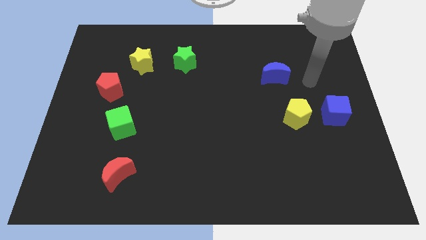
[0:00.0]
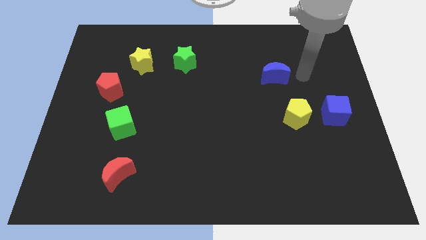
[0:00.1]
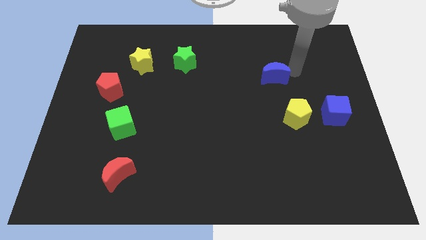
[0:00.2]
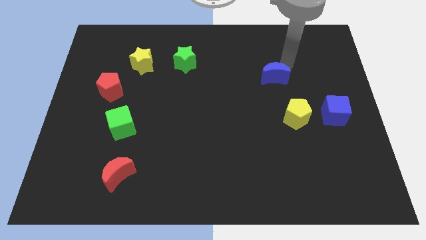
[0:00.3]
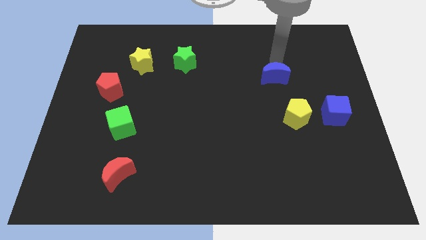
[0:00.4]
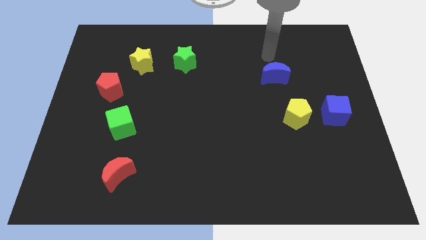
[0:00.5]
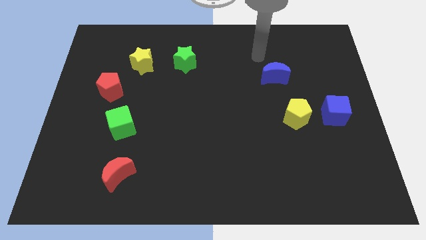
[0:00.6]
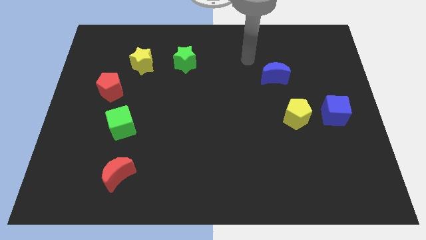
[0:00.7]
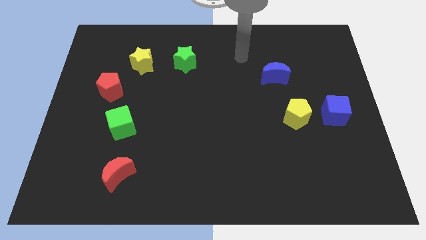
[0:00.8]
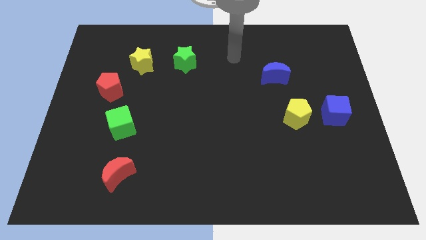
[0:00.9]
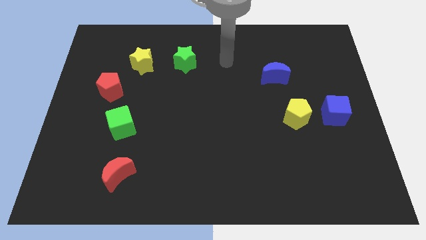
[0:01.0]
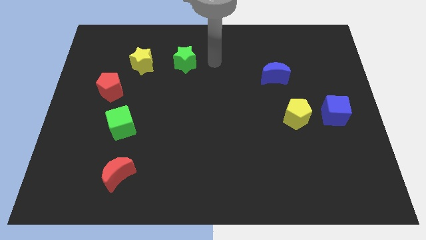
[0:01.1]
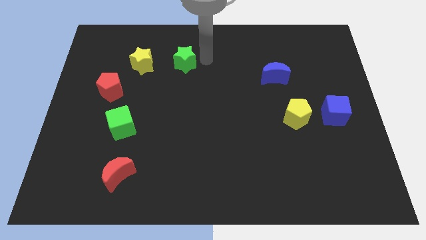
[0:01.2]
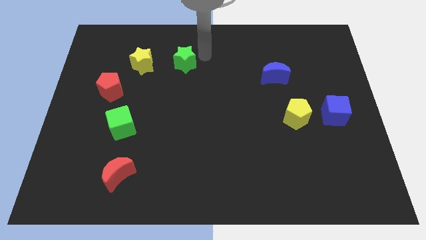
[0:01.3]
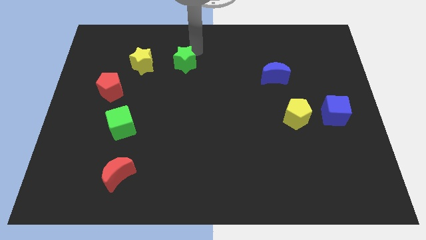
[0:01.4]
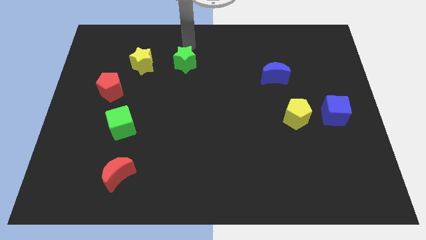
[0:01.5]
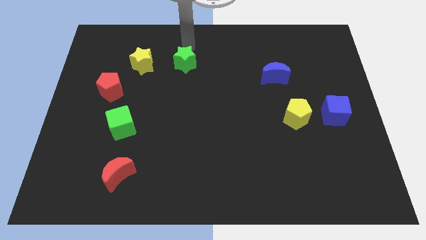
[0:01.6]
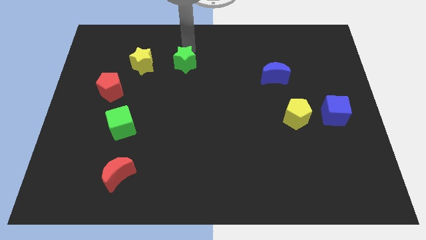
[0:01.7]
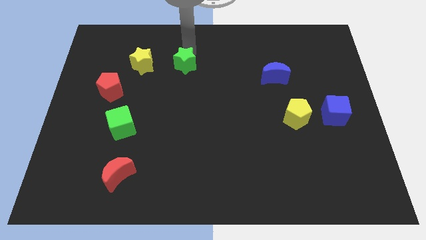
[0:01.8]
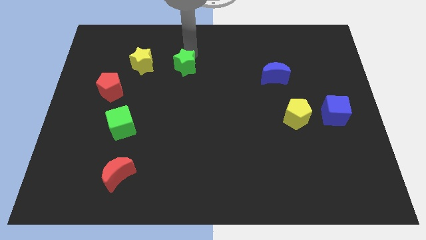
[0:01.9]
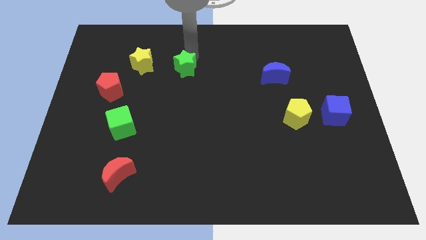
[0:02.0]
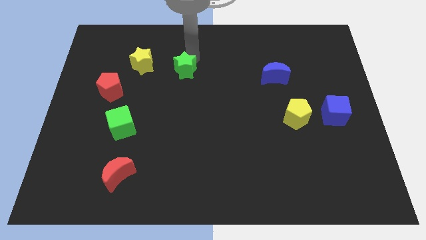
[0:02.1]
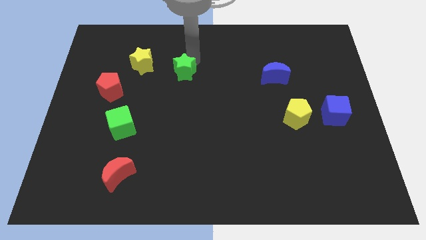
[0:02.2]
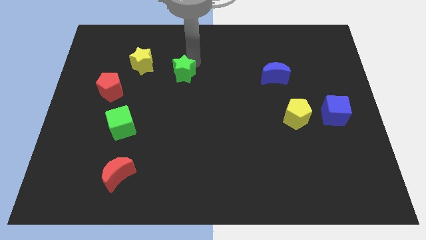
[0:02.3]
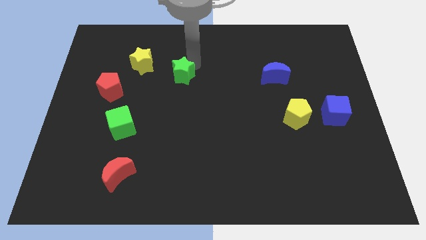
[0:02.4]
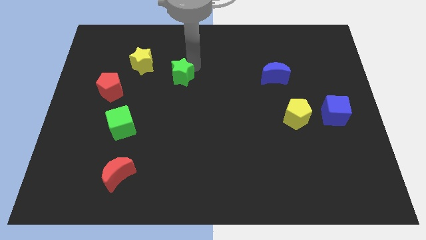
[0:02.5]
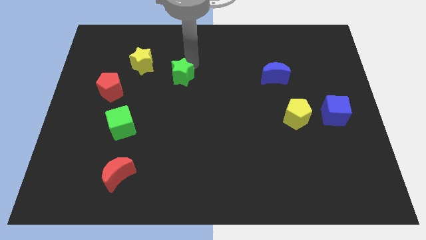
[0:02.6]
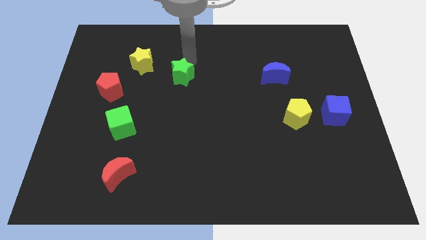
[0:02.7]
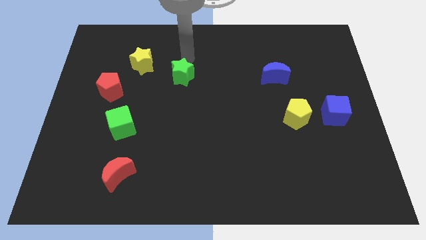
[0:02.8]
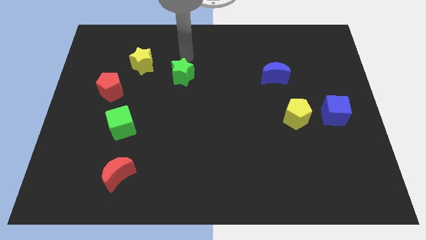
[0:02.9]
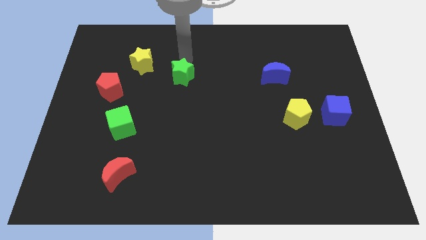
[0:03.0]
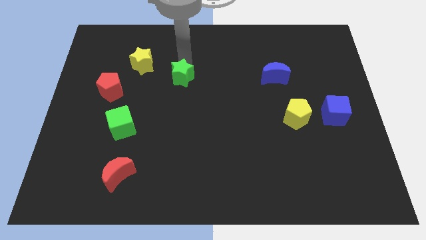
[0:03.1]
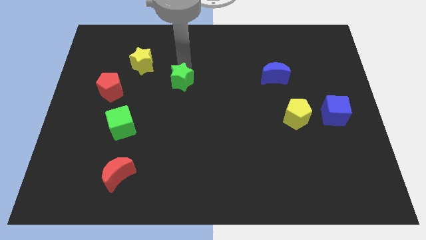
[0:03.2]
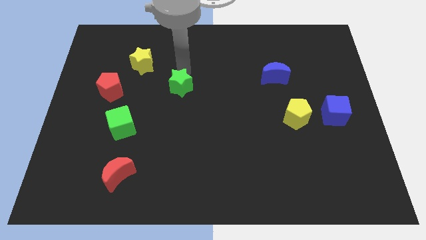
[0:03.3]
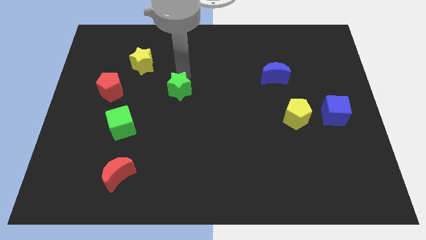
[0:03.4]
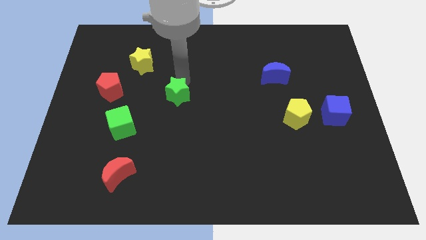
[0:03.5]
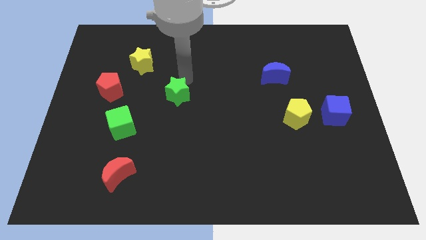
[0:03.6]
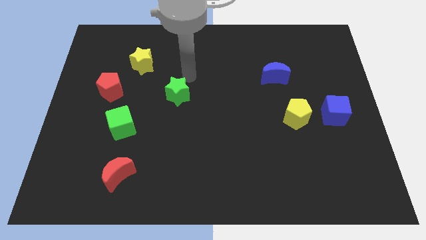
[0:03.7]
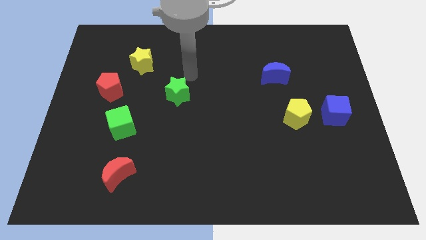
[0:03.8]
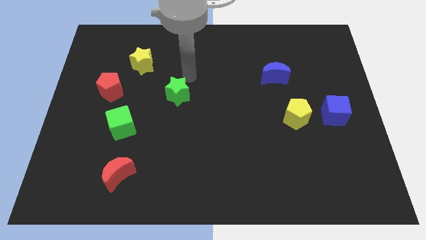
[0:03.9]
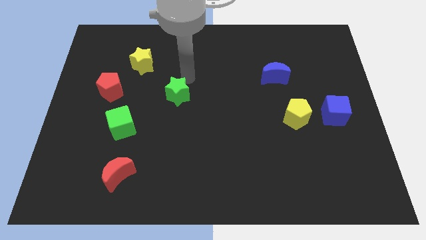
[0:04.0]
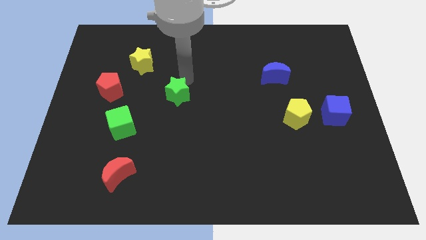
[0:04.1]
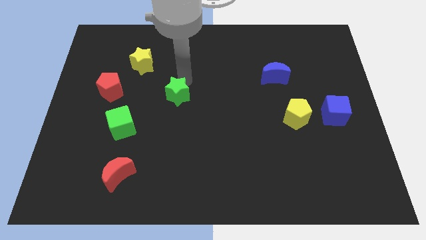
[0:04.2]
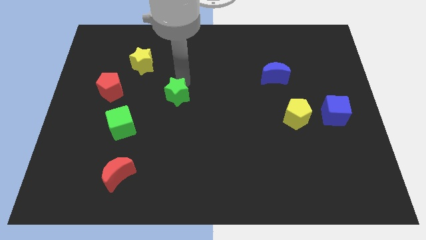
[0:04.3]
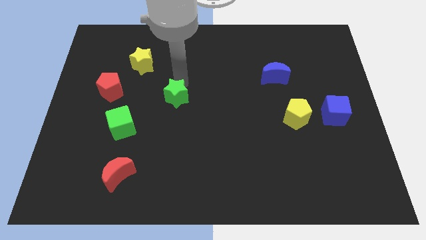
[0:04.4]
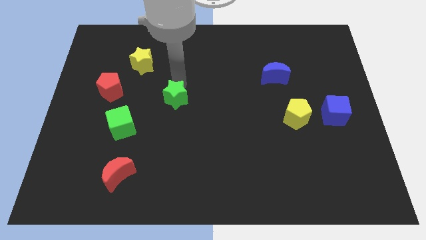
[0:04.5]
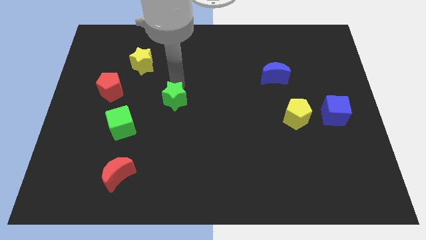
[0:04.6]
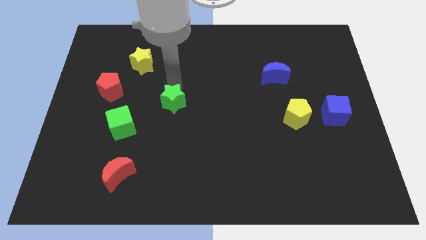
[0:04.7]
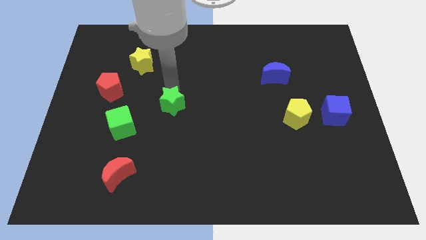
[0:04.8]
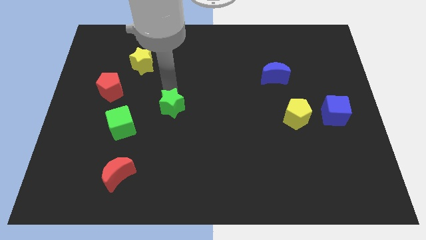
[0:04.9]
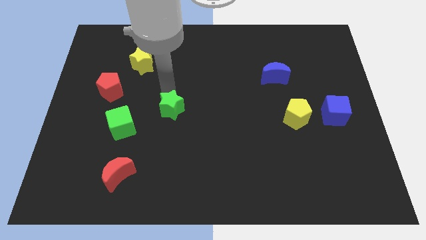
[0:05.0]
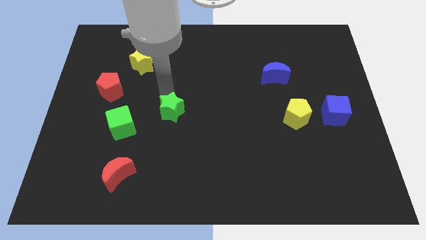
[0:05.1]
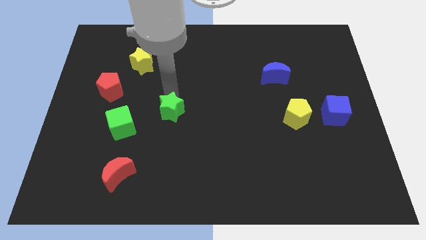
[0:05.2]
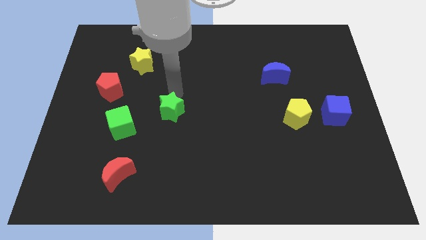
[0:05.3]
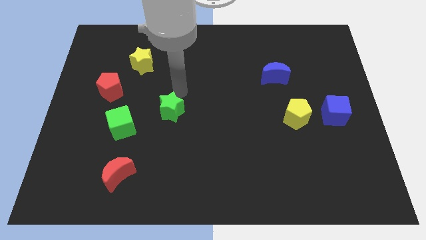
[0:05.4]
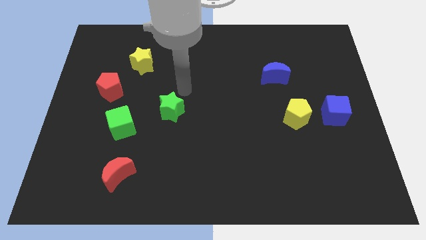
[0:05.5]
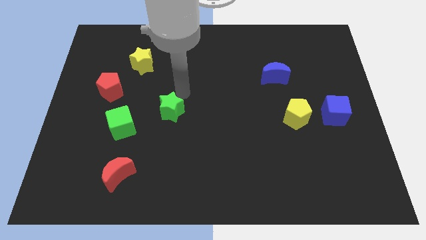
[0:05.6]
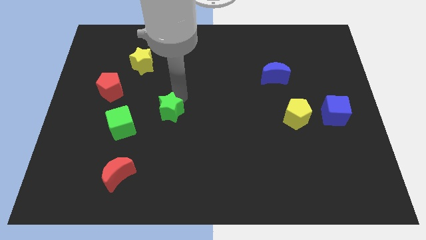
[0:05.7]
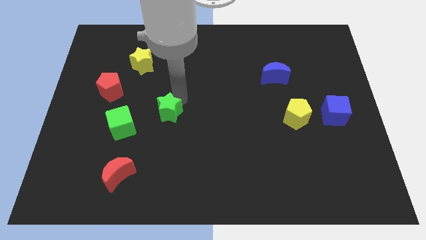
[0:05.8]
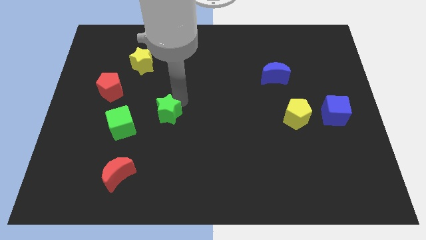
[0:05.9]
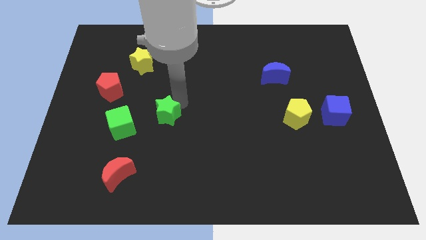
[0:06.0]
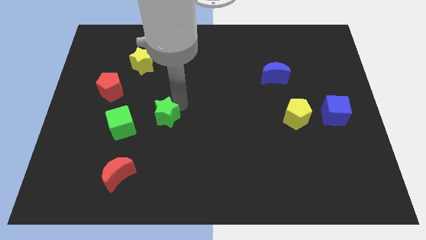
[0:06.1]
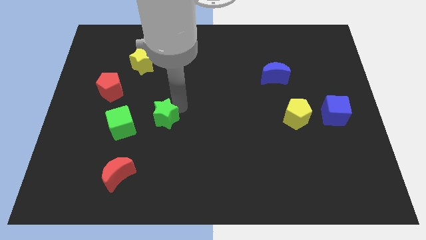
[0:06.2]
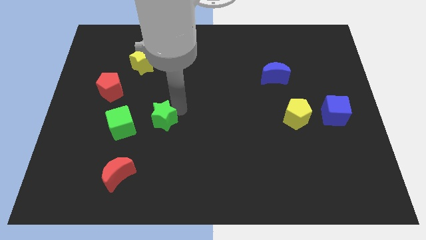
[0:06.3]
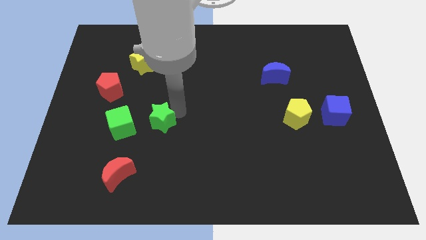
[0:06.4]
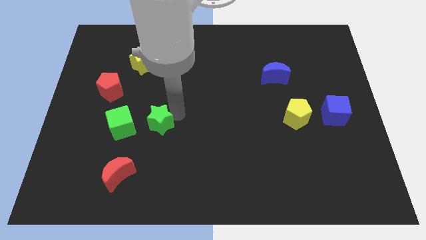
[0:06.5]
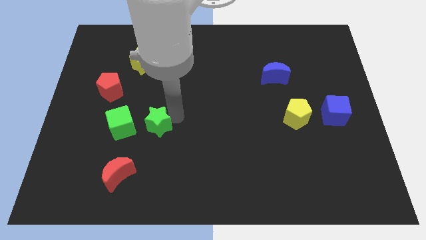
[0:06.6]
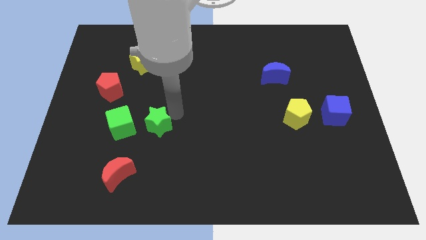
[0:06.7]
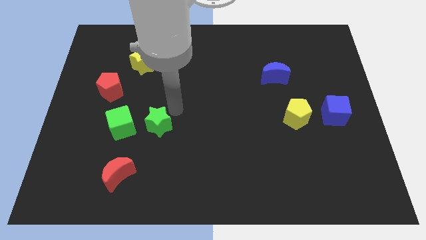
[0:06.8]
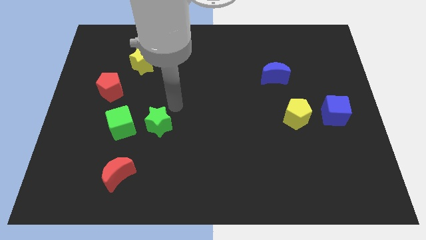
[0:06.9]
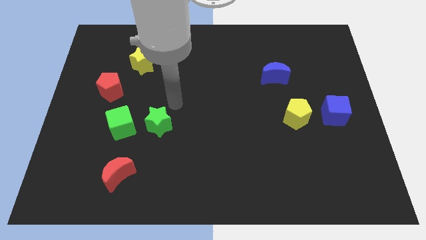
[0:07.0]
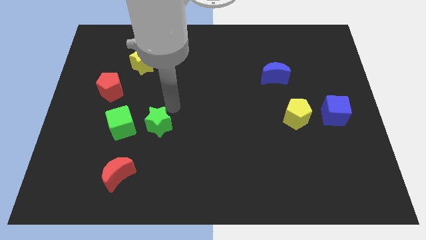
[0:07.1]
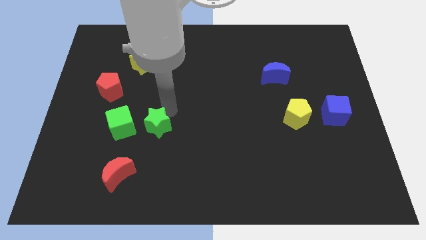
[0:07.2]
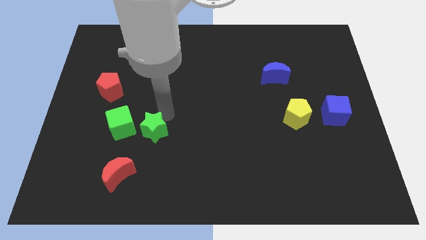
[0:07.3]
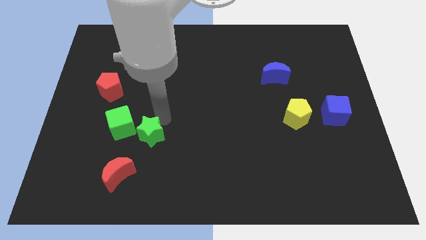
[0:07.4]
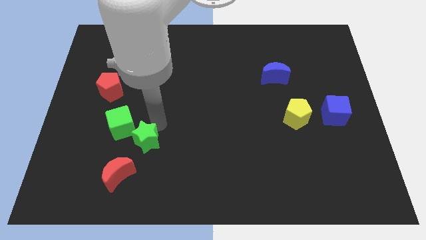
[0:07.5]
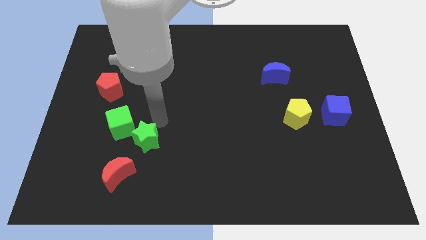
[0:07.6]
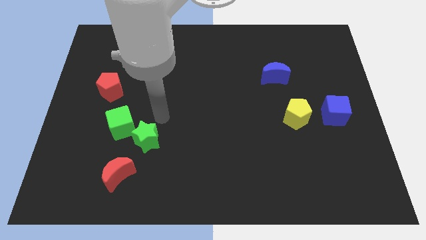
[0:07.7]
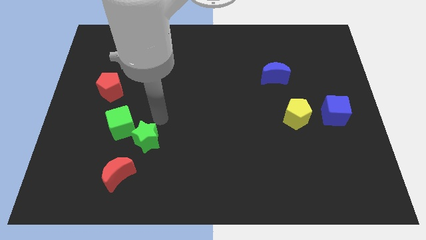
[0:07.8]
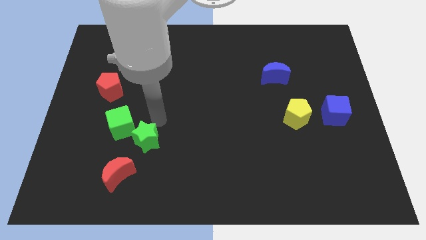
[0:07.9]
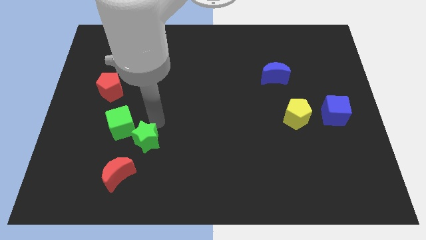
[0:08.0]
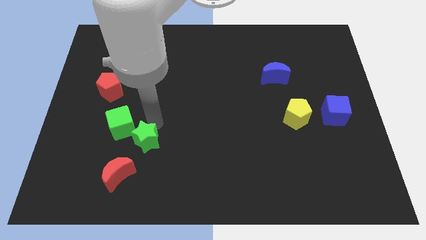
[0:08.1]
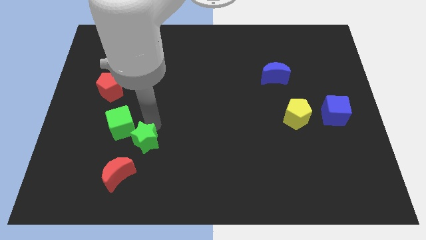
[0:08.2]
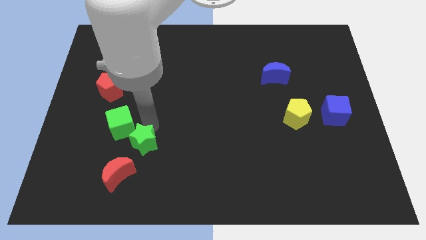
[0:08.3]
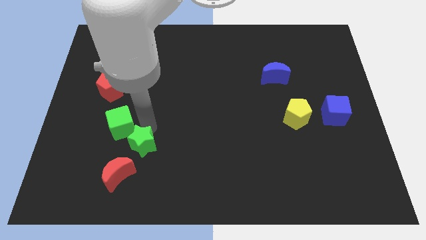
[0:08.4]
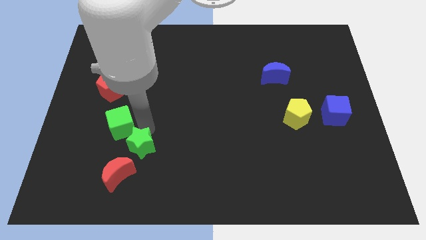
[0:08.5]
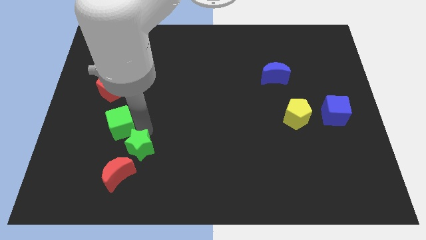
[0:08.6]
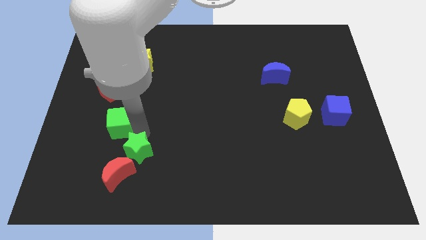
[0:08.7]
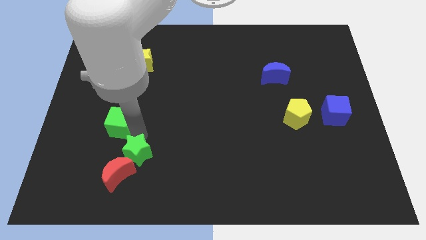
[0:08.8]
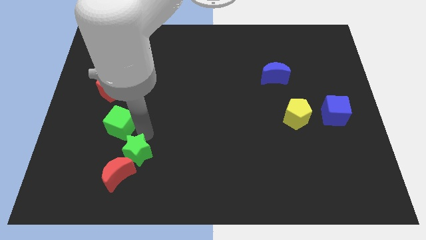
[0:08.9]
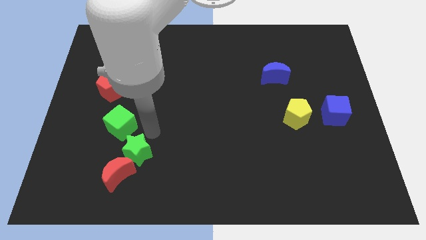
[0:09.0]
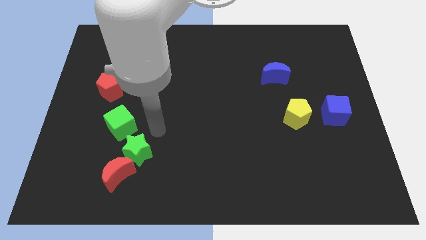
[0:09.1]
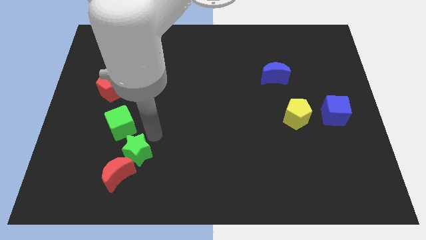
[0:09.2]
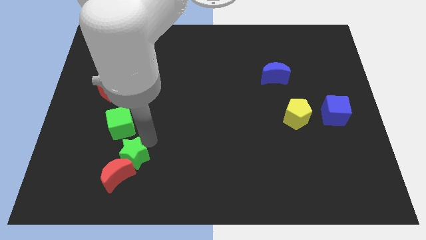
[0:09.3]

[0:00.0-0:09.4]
slide the green star to the red moon
